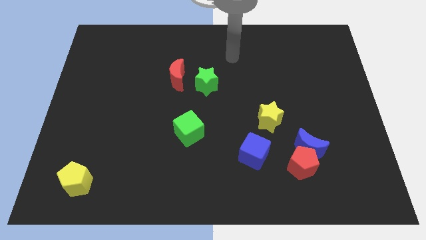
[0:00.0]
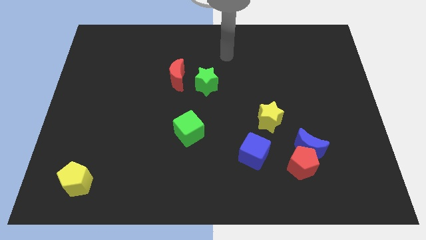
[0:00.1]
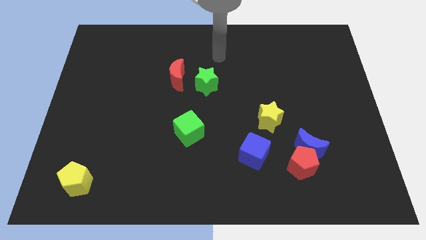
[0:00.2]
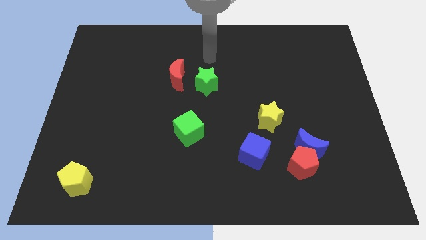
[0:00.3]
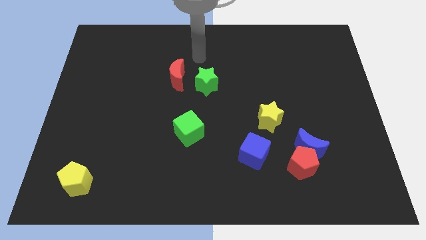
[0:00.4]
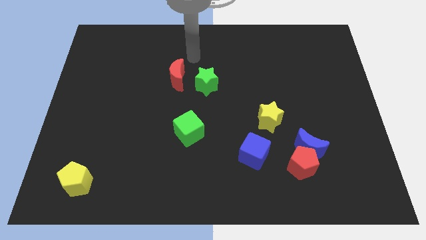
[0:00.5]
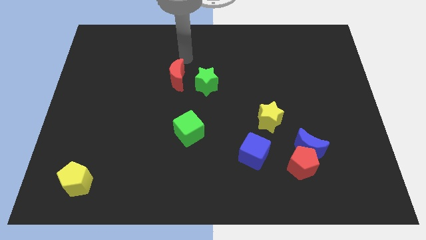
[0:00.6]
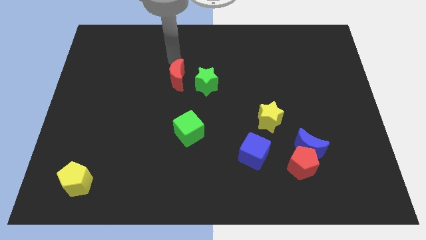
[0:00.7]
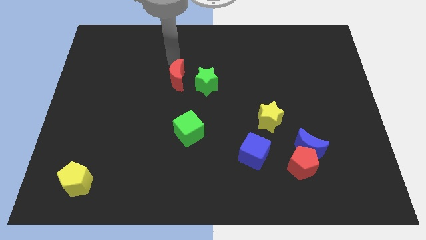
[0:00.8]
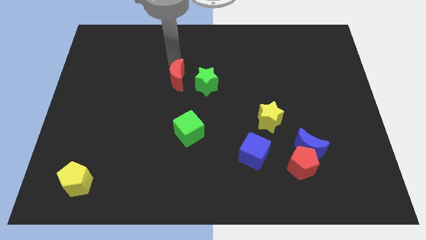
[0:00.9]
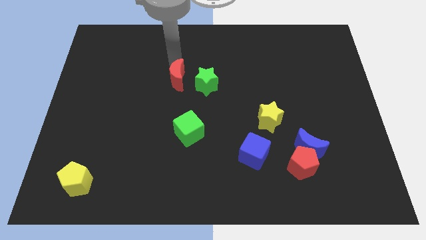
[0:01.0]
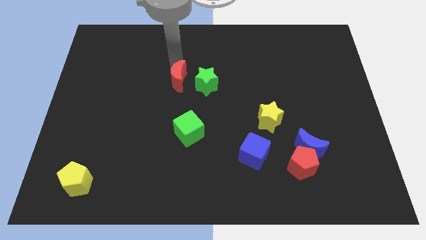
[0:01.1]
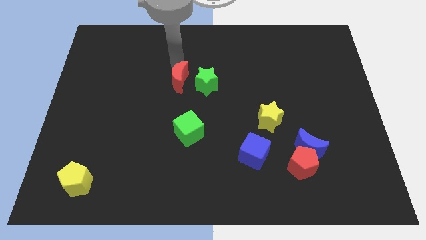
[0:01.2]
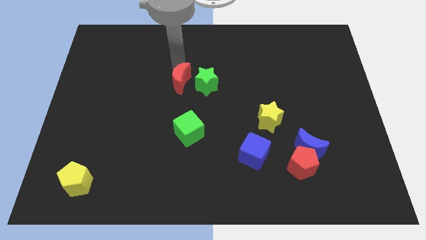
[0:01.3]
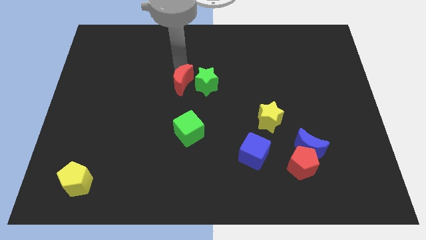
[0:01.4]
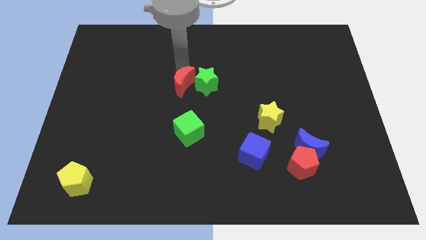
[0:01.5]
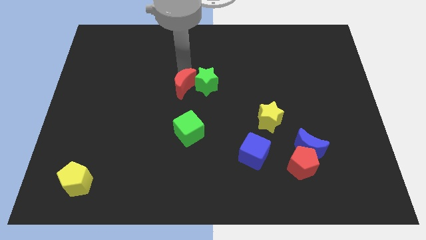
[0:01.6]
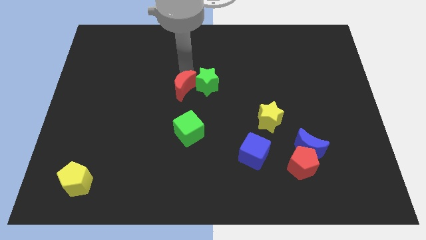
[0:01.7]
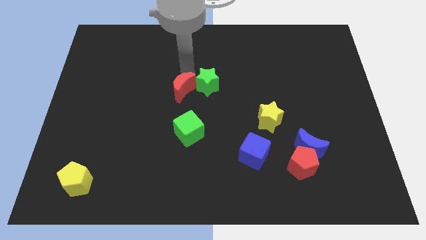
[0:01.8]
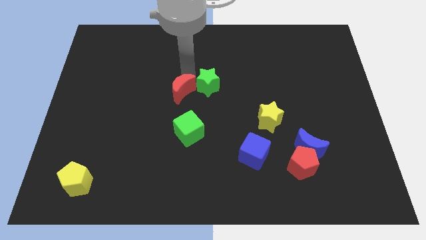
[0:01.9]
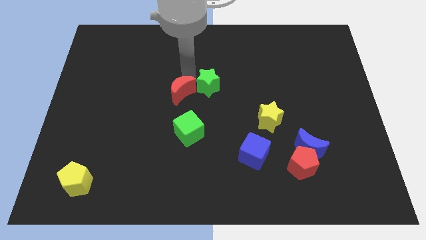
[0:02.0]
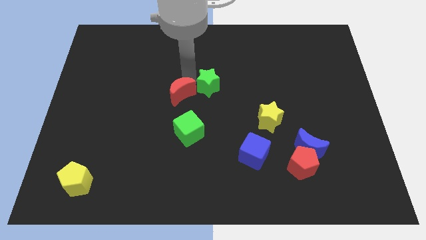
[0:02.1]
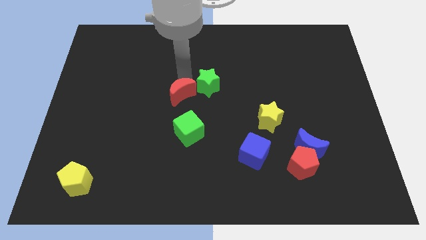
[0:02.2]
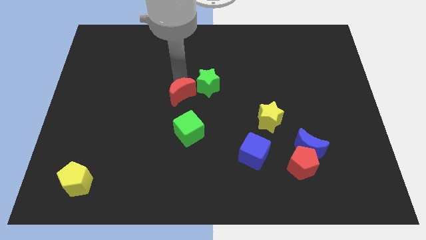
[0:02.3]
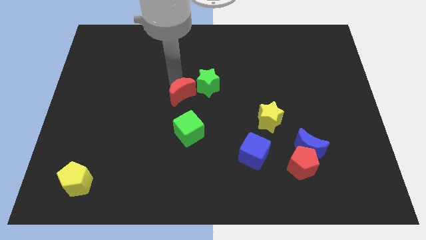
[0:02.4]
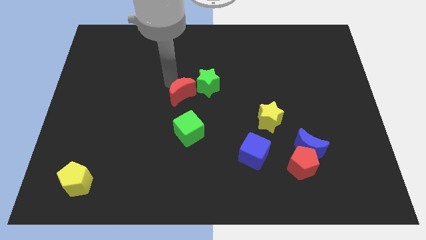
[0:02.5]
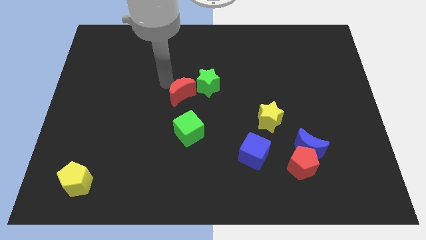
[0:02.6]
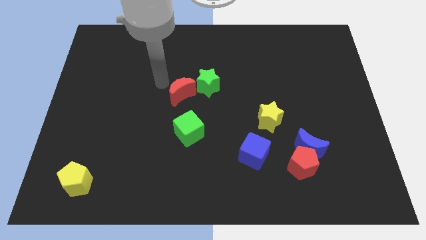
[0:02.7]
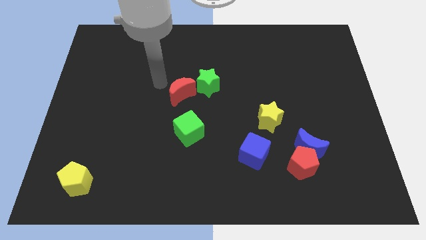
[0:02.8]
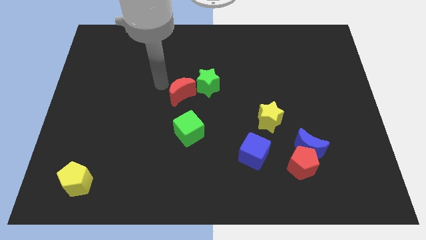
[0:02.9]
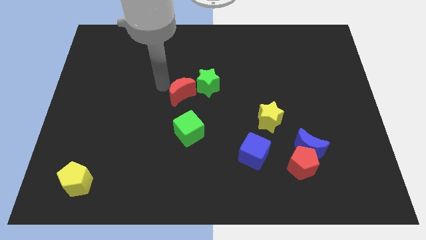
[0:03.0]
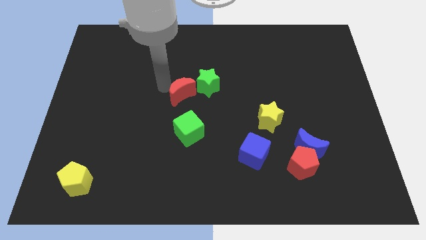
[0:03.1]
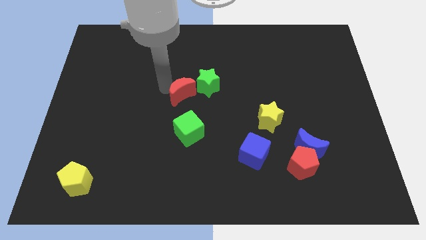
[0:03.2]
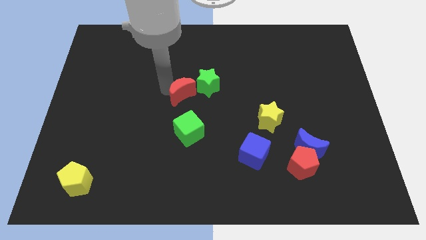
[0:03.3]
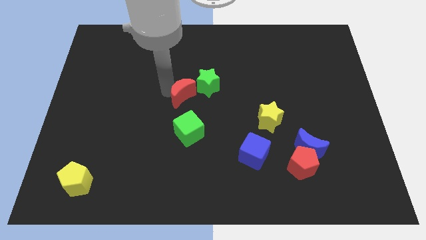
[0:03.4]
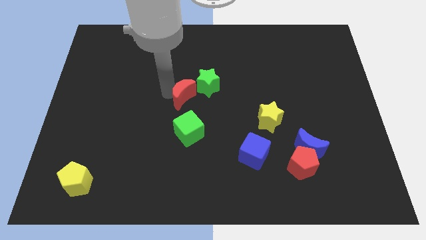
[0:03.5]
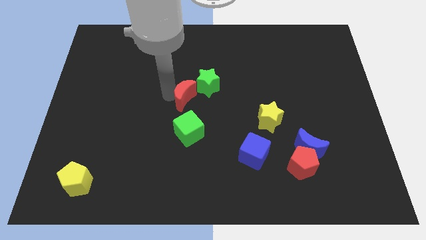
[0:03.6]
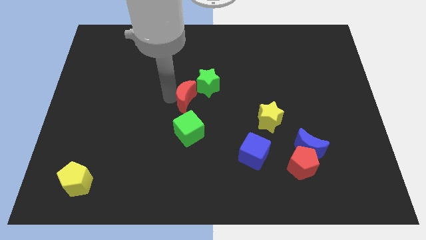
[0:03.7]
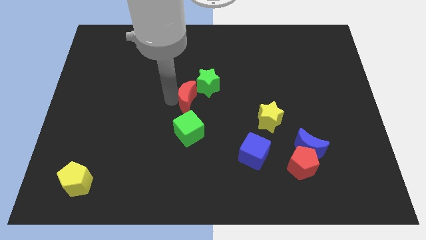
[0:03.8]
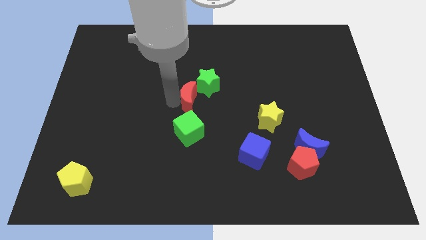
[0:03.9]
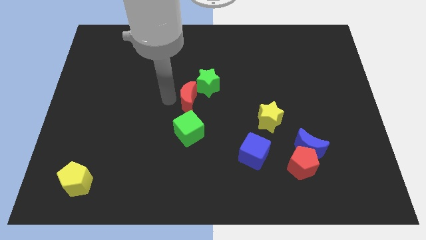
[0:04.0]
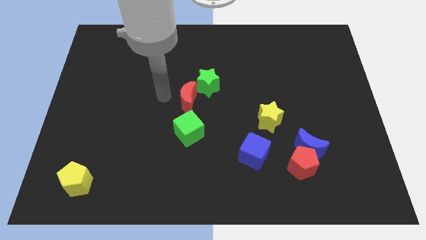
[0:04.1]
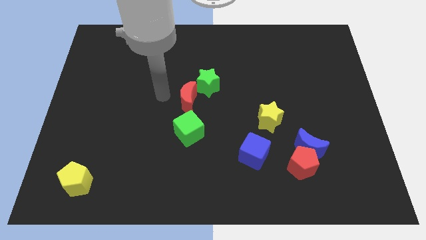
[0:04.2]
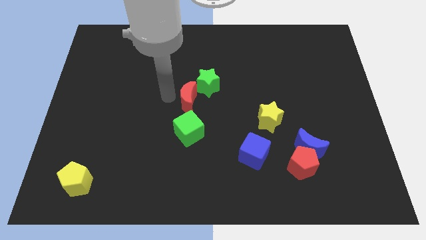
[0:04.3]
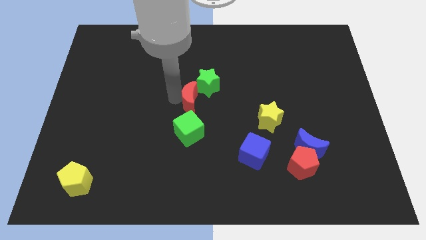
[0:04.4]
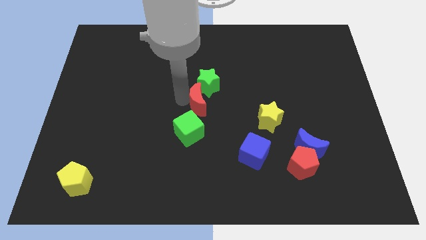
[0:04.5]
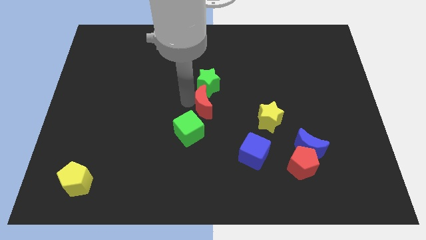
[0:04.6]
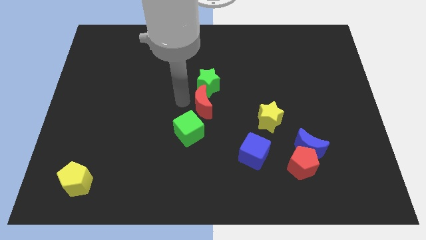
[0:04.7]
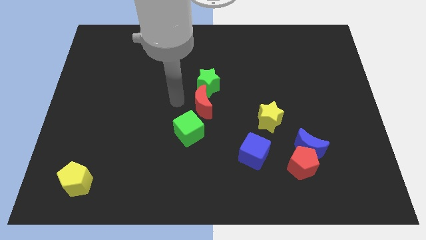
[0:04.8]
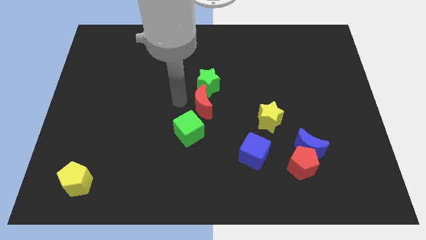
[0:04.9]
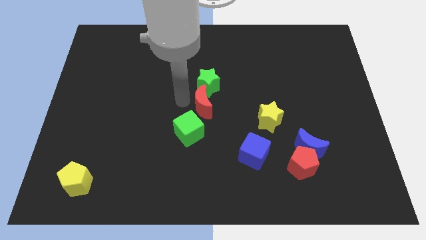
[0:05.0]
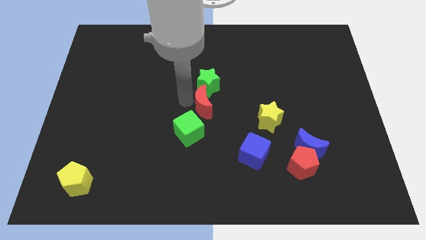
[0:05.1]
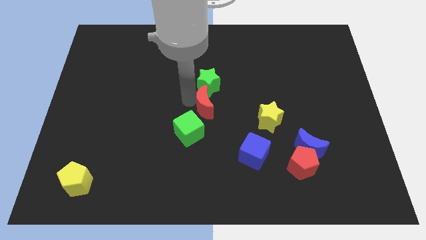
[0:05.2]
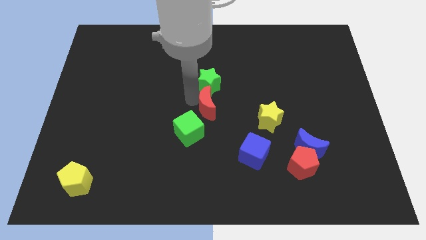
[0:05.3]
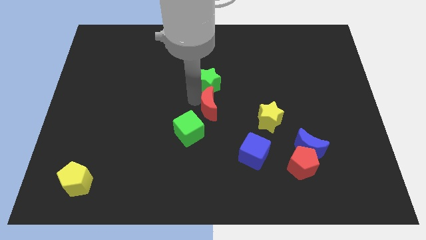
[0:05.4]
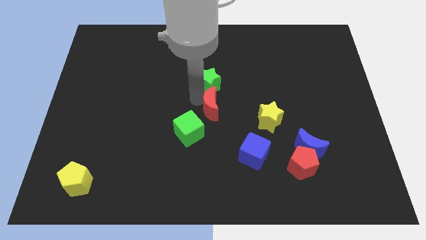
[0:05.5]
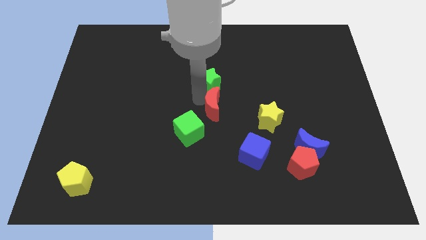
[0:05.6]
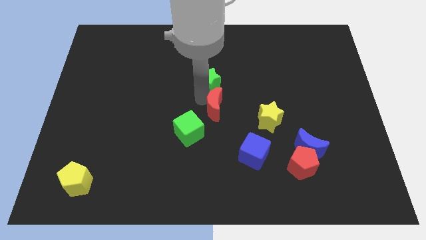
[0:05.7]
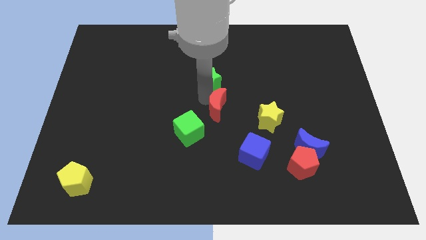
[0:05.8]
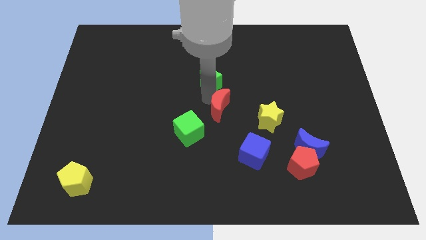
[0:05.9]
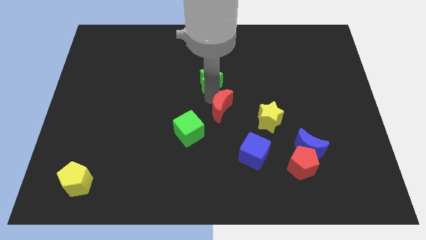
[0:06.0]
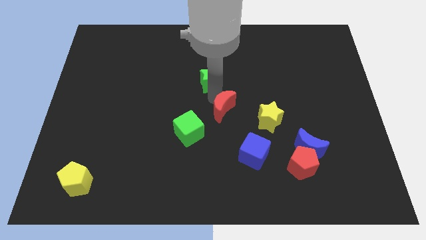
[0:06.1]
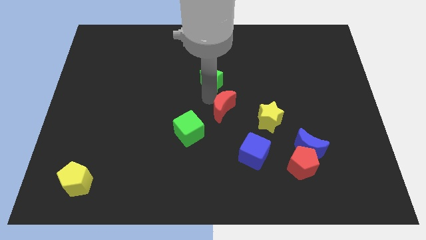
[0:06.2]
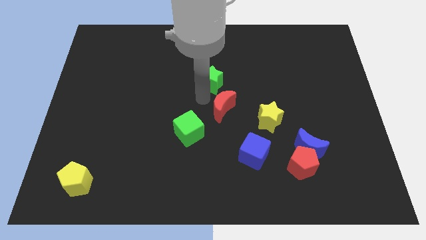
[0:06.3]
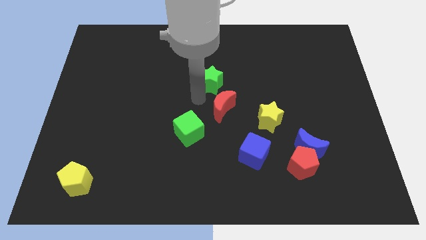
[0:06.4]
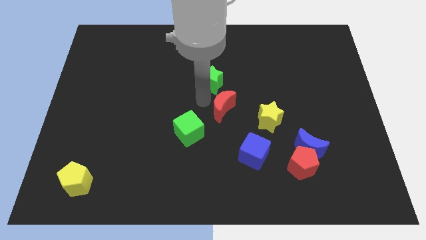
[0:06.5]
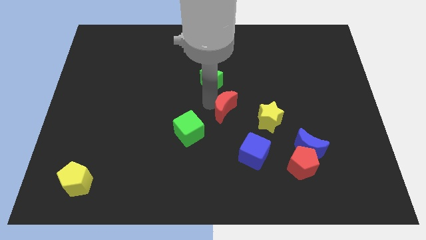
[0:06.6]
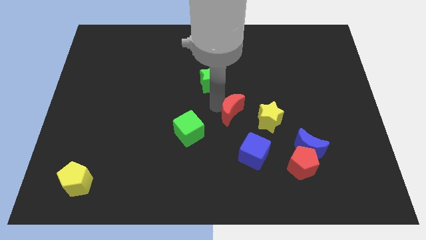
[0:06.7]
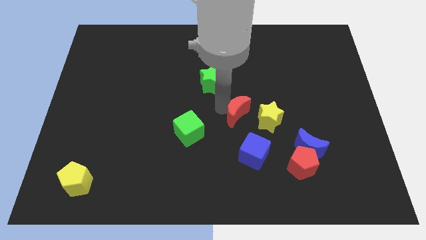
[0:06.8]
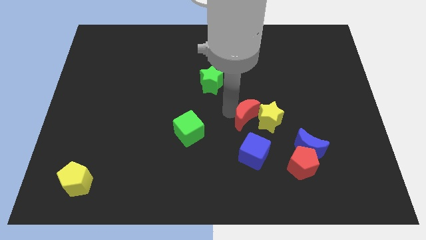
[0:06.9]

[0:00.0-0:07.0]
slide the red moon close to the yellow star

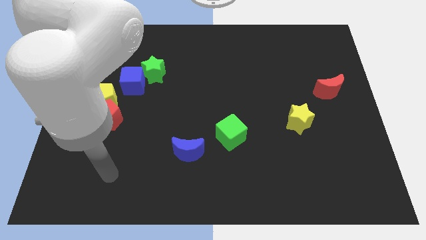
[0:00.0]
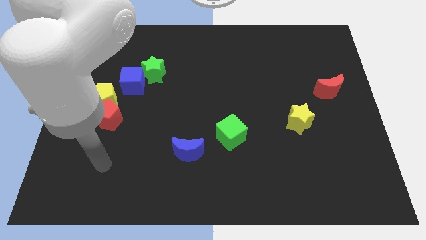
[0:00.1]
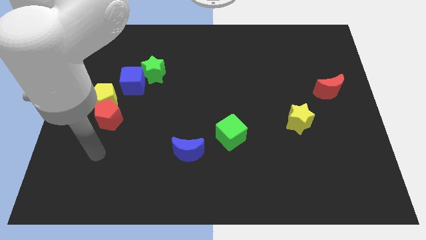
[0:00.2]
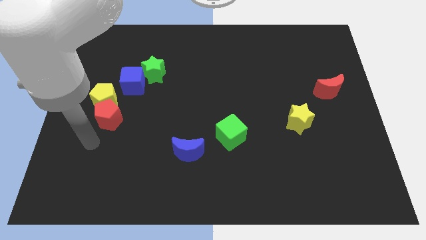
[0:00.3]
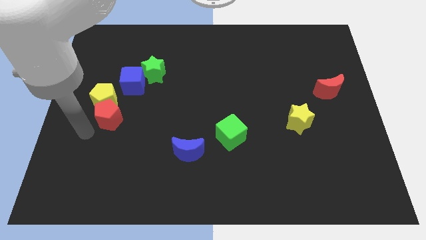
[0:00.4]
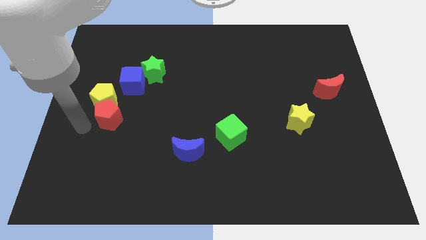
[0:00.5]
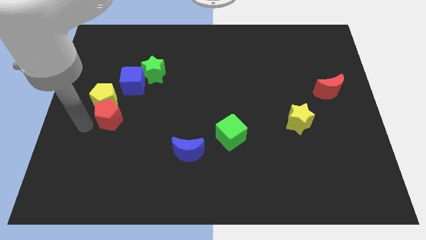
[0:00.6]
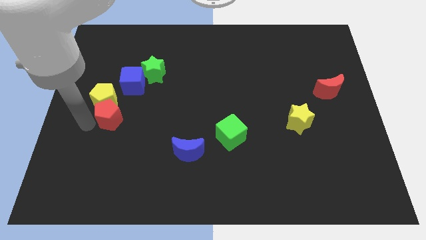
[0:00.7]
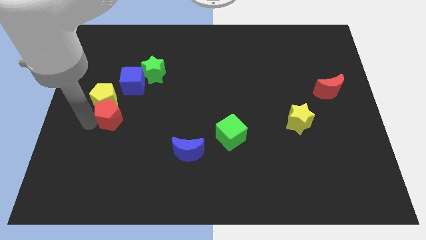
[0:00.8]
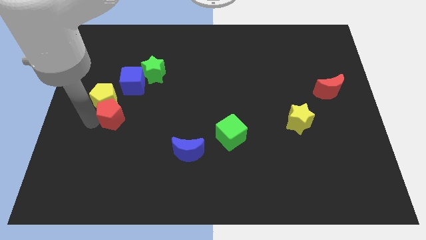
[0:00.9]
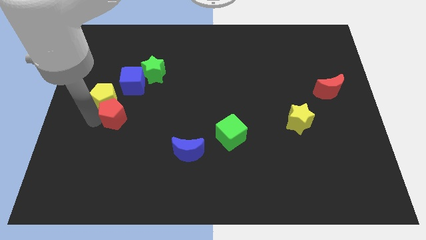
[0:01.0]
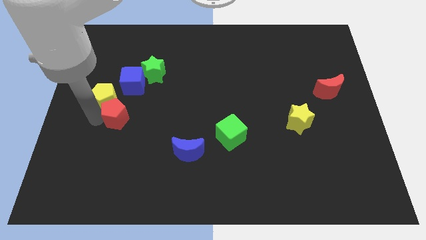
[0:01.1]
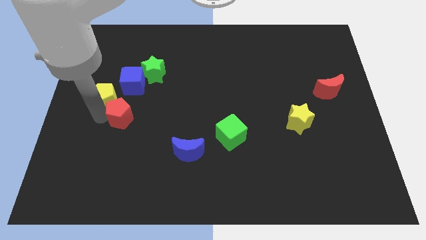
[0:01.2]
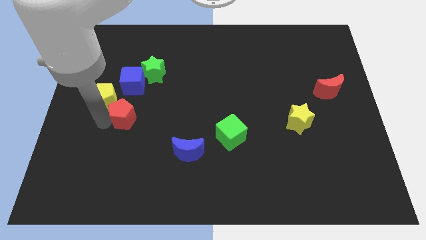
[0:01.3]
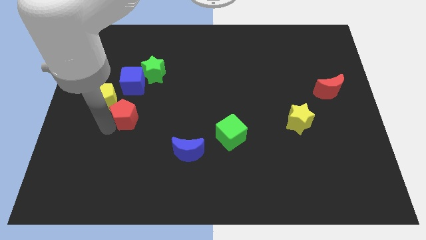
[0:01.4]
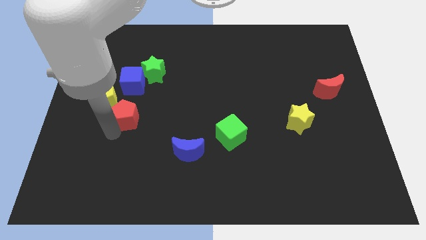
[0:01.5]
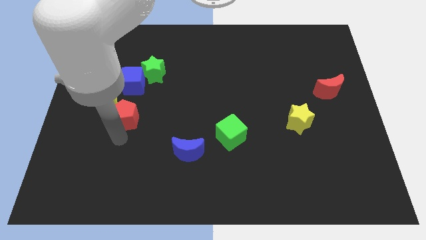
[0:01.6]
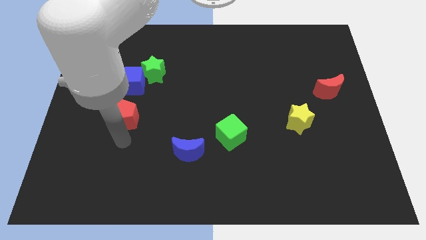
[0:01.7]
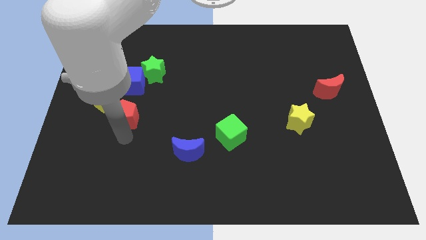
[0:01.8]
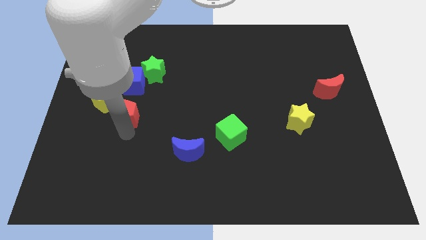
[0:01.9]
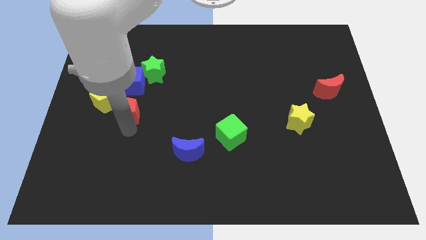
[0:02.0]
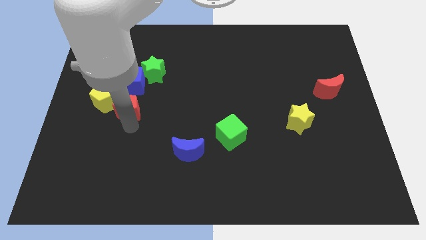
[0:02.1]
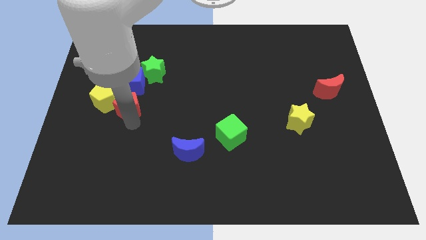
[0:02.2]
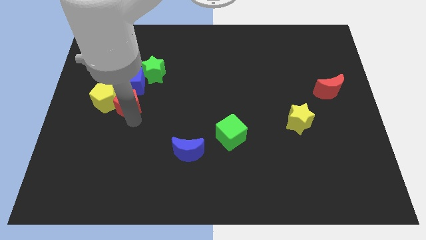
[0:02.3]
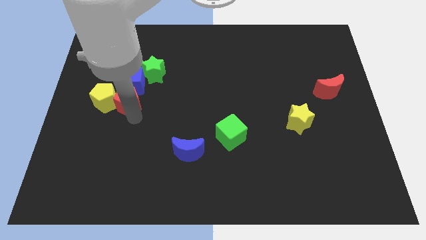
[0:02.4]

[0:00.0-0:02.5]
push the red pentagon to the blue cube
